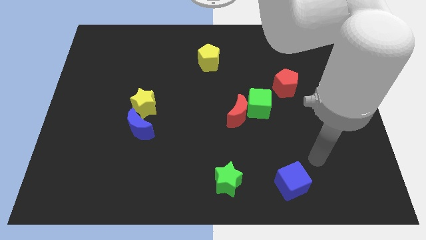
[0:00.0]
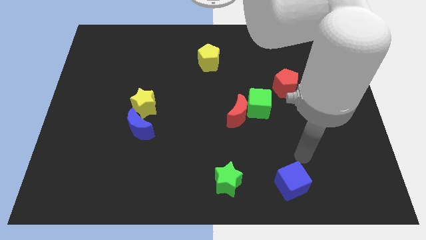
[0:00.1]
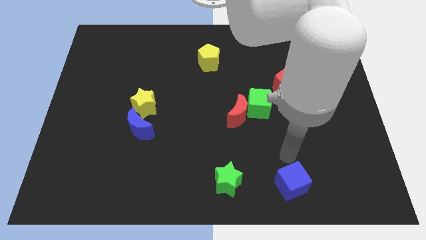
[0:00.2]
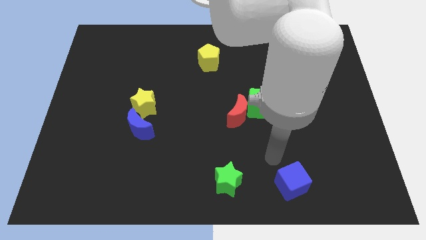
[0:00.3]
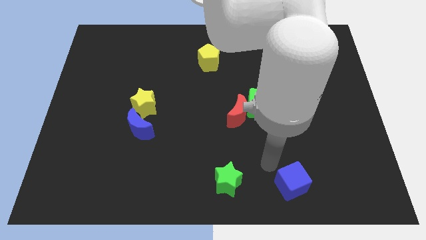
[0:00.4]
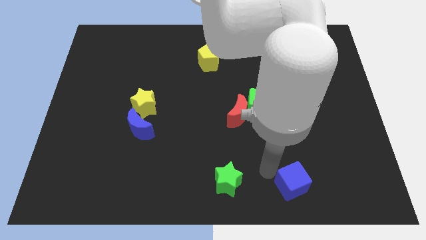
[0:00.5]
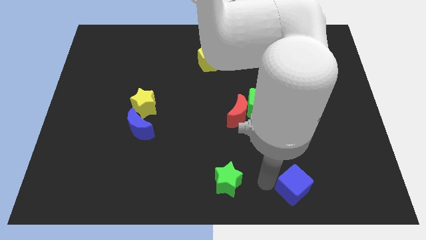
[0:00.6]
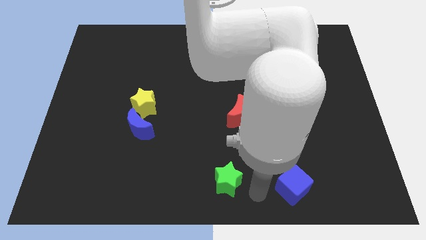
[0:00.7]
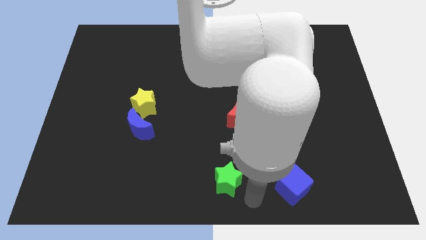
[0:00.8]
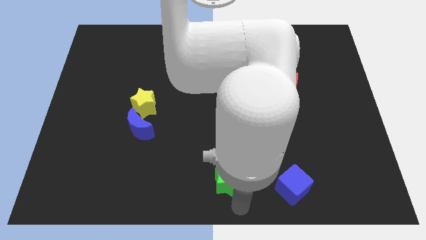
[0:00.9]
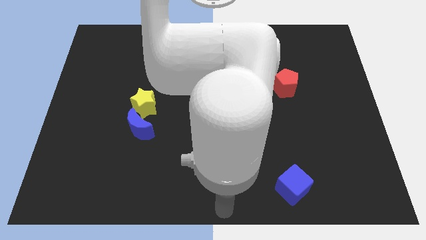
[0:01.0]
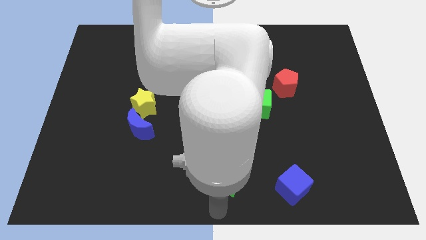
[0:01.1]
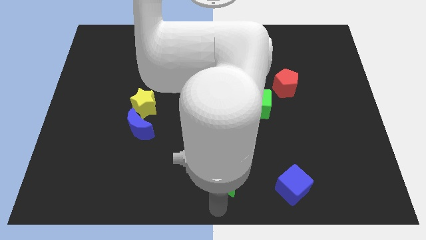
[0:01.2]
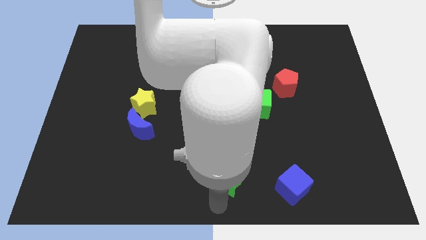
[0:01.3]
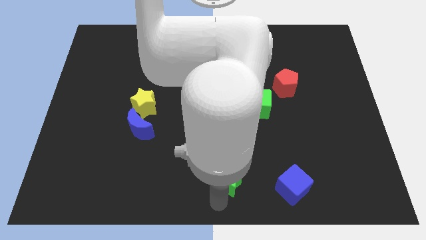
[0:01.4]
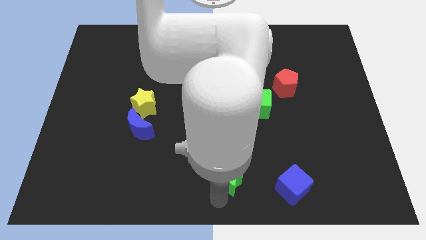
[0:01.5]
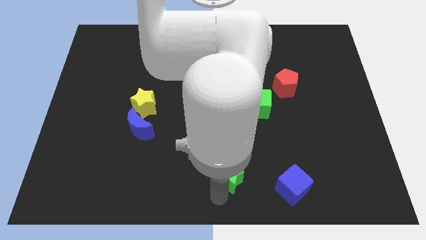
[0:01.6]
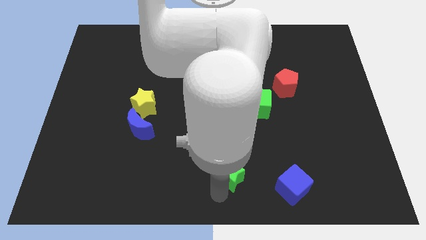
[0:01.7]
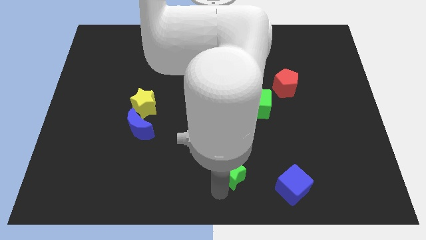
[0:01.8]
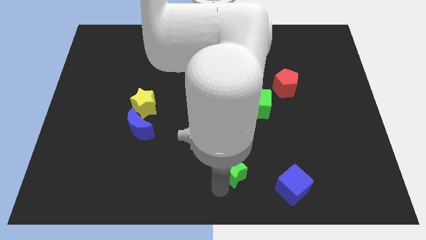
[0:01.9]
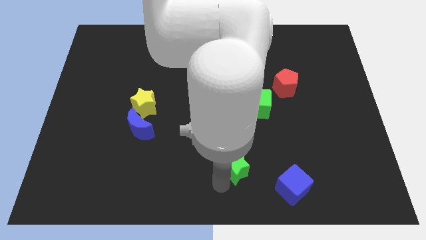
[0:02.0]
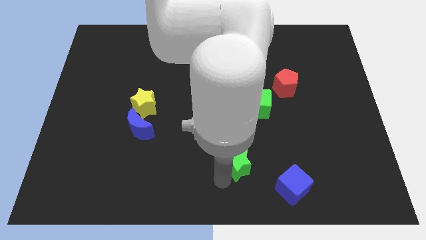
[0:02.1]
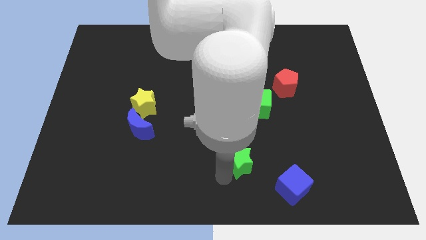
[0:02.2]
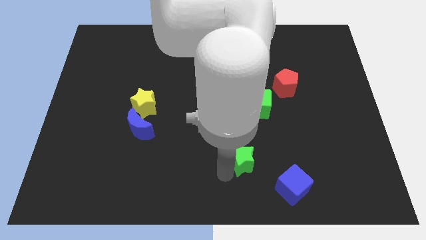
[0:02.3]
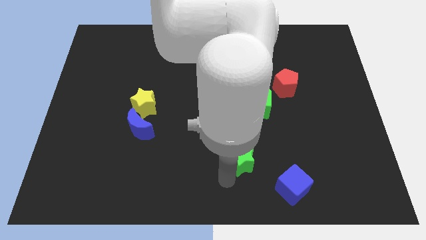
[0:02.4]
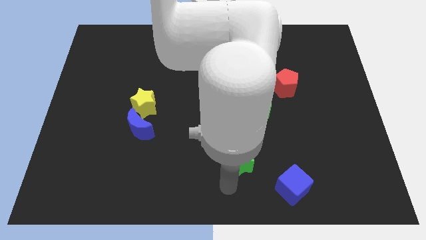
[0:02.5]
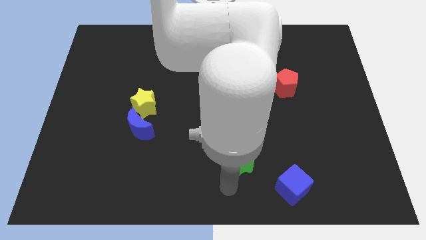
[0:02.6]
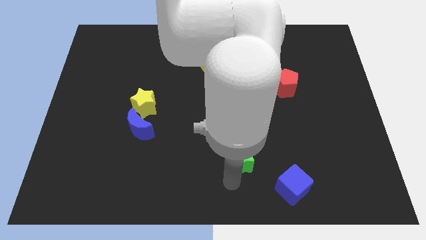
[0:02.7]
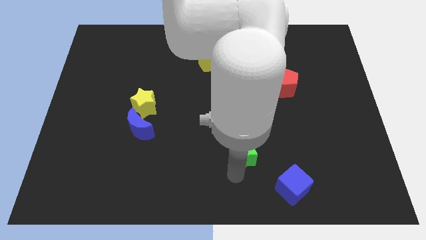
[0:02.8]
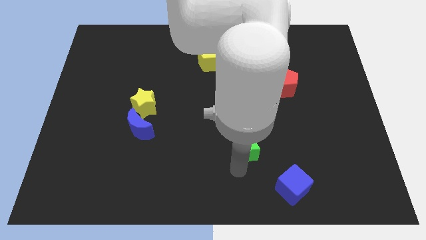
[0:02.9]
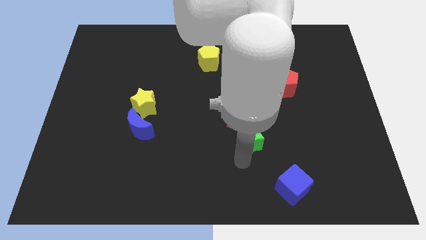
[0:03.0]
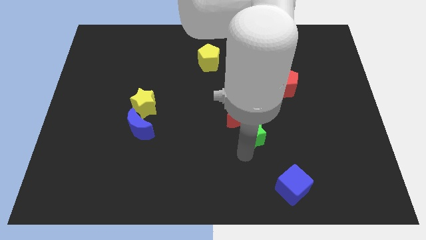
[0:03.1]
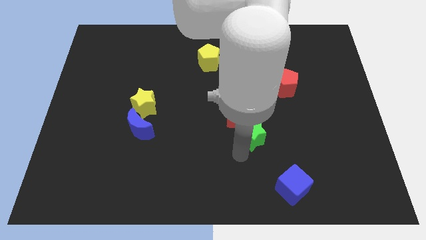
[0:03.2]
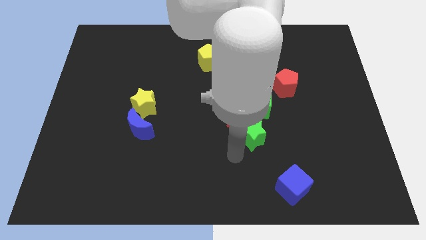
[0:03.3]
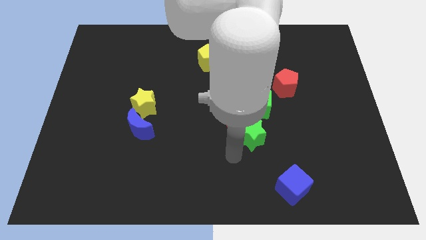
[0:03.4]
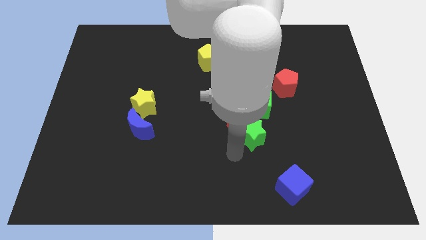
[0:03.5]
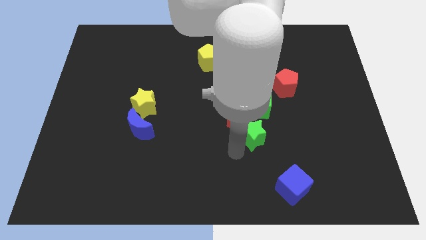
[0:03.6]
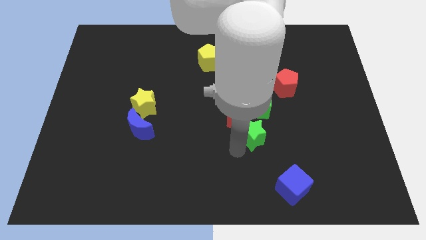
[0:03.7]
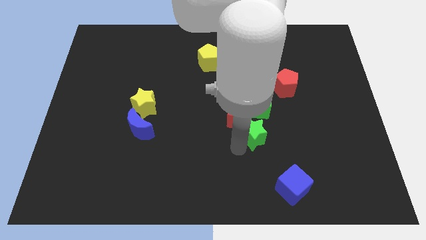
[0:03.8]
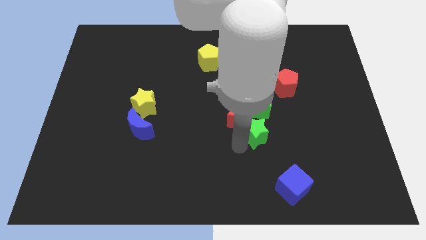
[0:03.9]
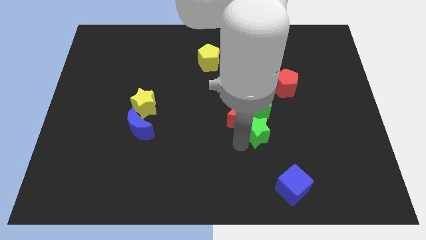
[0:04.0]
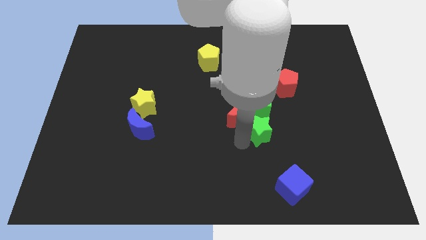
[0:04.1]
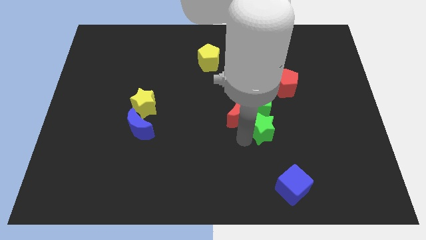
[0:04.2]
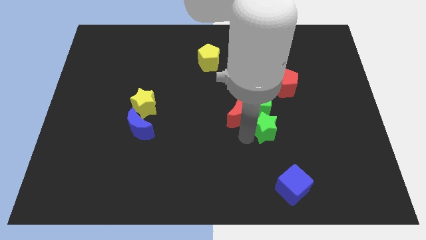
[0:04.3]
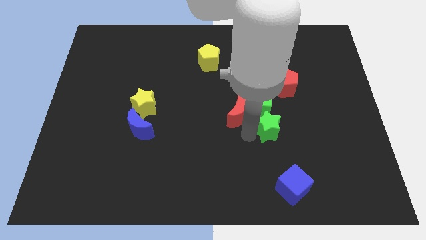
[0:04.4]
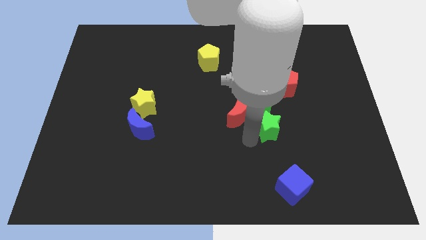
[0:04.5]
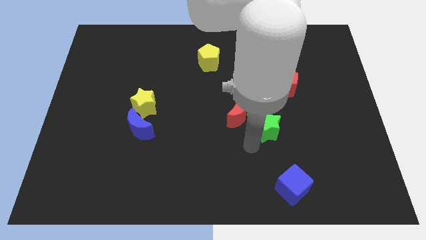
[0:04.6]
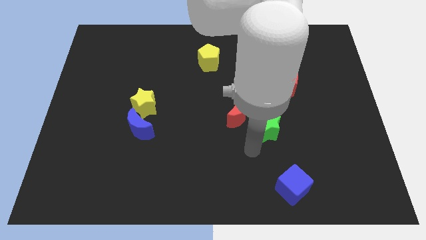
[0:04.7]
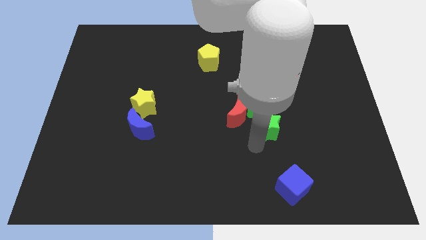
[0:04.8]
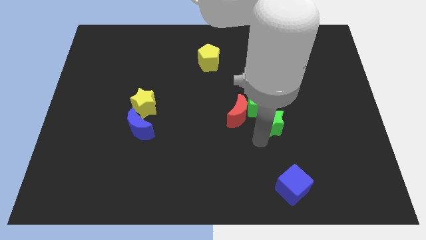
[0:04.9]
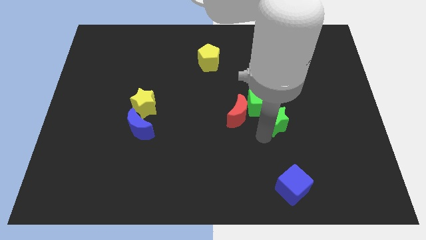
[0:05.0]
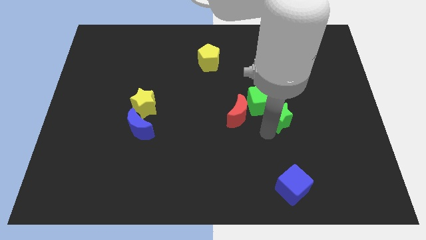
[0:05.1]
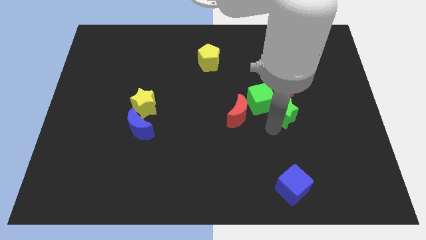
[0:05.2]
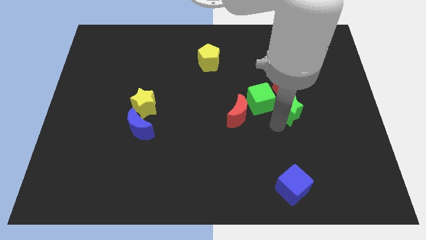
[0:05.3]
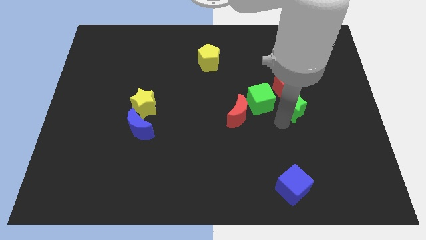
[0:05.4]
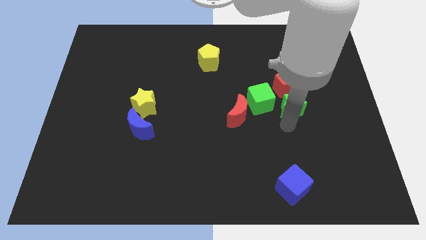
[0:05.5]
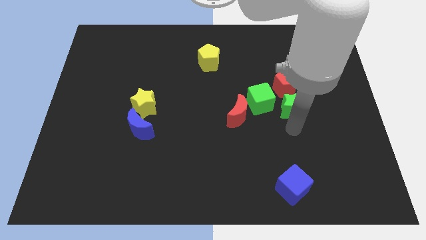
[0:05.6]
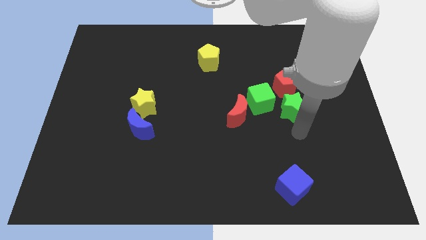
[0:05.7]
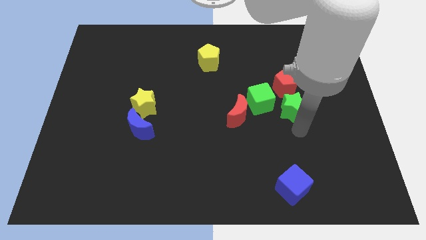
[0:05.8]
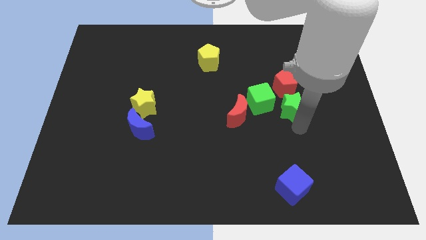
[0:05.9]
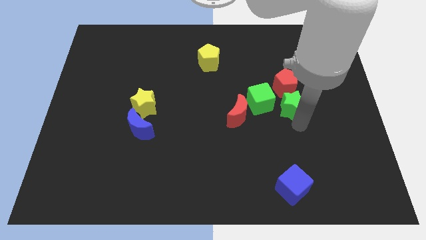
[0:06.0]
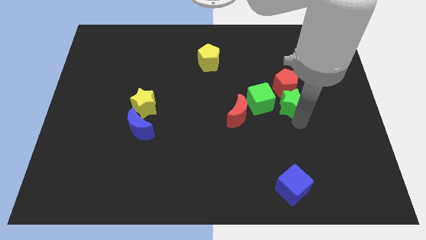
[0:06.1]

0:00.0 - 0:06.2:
slide the green star towards the red pentagon

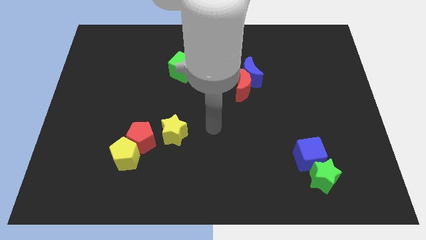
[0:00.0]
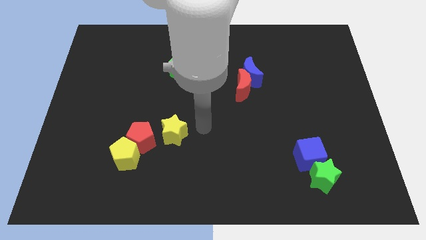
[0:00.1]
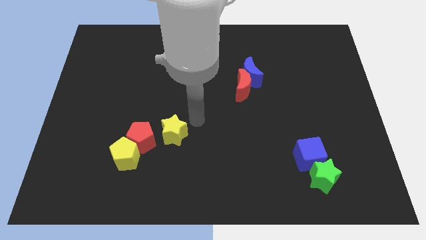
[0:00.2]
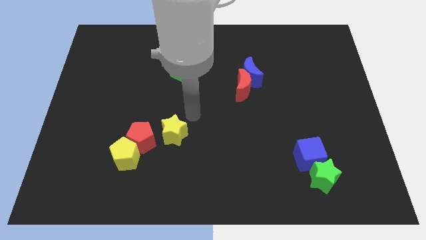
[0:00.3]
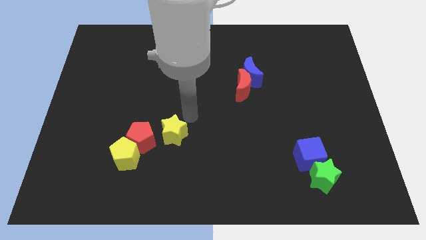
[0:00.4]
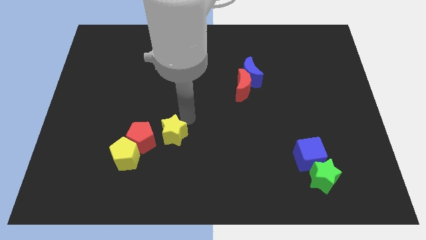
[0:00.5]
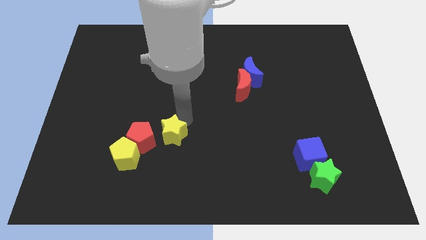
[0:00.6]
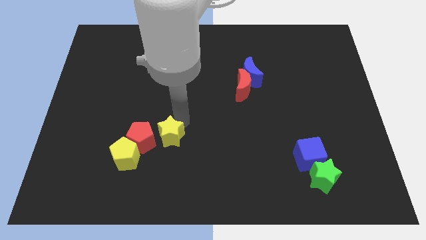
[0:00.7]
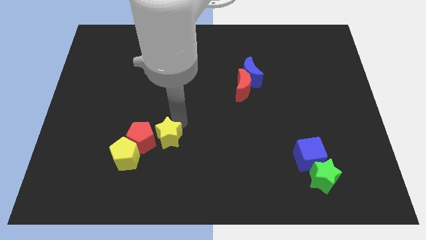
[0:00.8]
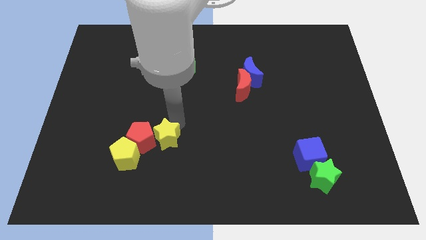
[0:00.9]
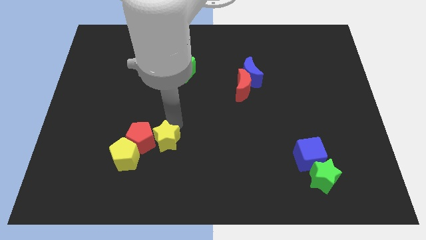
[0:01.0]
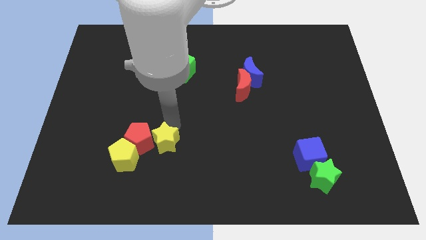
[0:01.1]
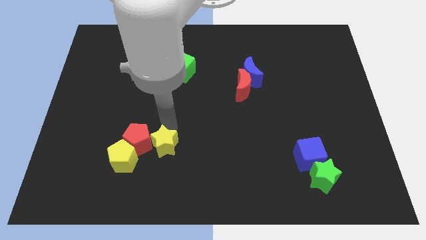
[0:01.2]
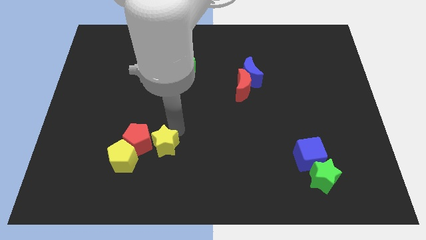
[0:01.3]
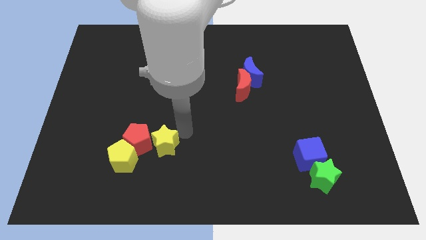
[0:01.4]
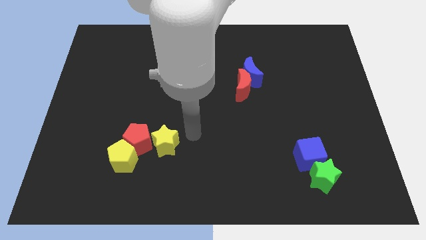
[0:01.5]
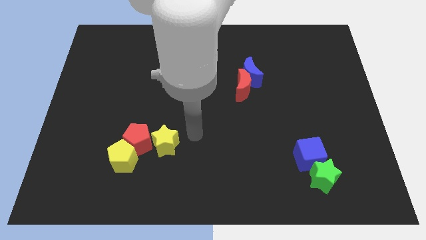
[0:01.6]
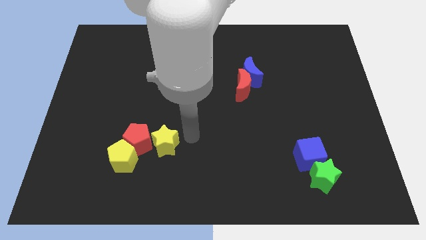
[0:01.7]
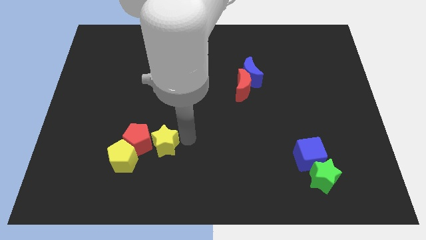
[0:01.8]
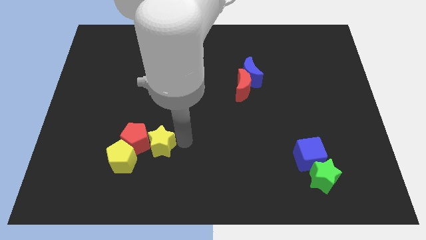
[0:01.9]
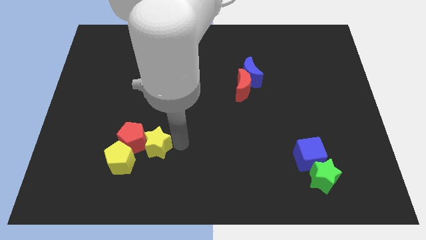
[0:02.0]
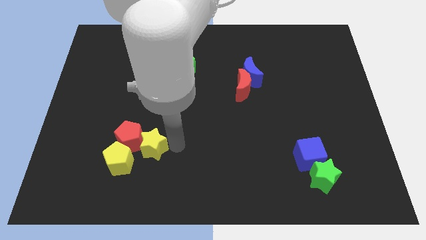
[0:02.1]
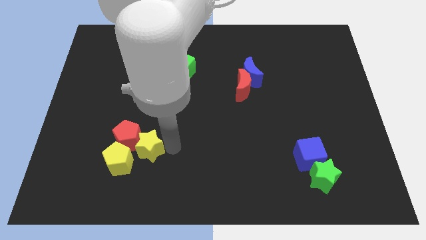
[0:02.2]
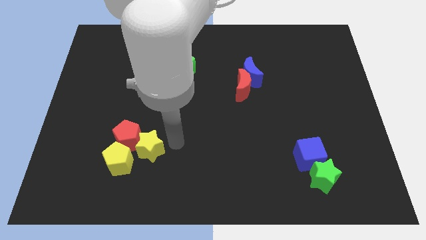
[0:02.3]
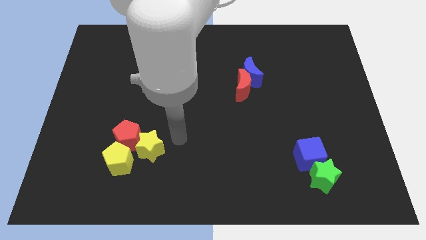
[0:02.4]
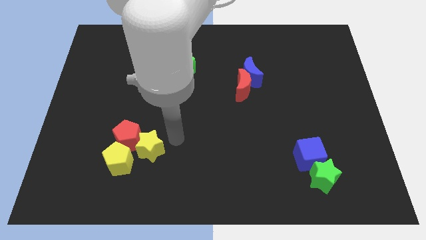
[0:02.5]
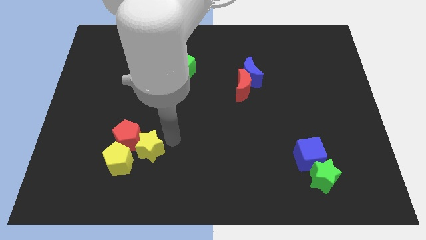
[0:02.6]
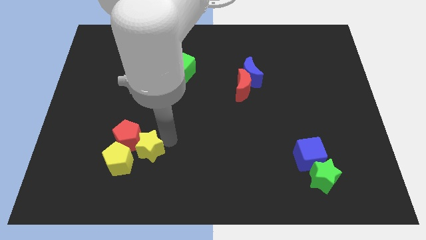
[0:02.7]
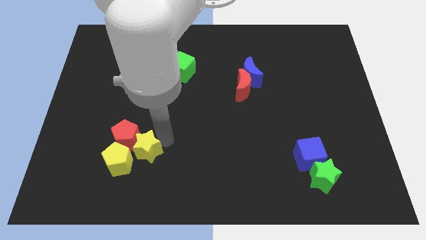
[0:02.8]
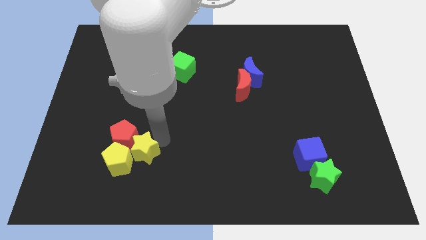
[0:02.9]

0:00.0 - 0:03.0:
slide the yellow star close to the yellow pentagon
